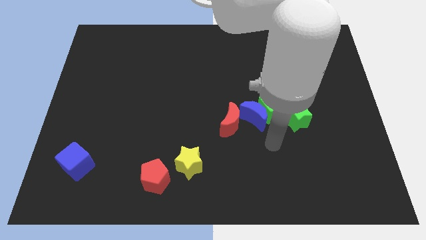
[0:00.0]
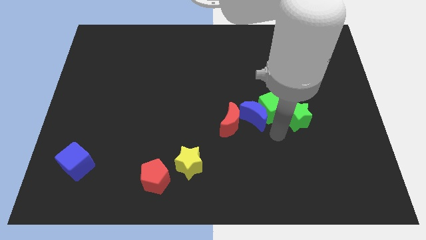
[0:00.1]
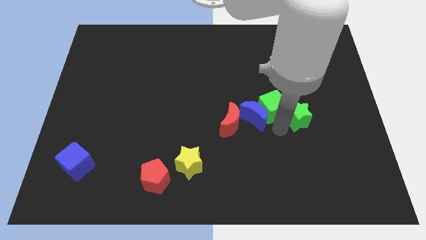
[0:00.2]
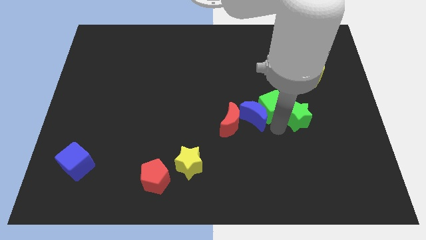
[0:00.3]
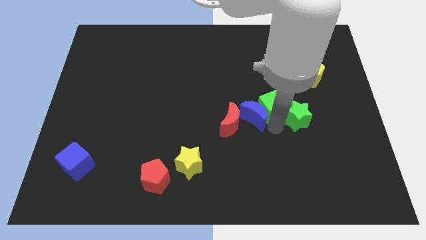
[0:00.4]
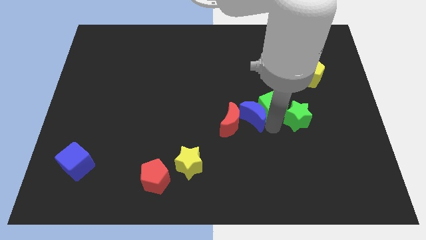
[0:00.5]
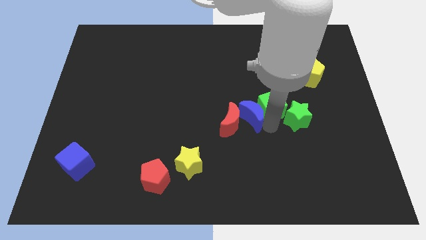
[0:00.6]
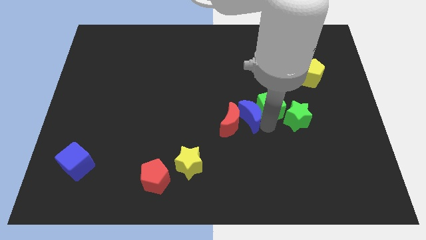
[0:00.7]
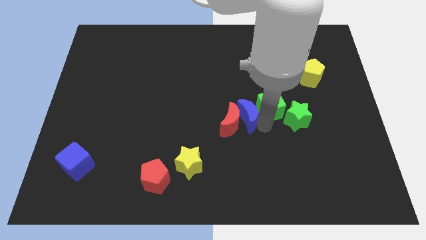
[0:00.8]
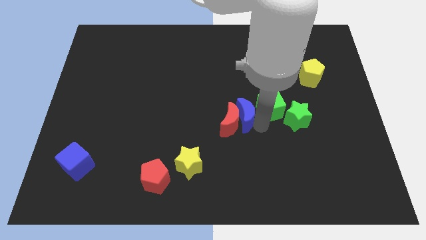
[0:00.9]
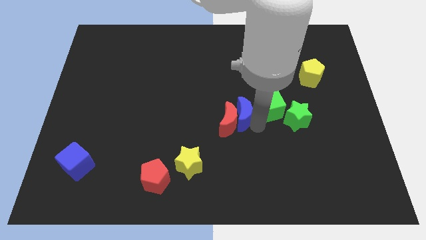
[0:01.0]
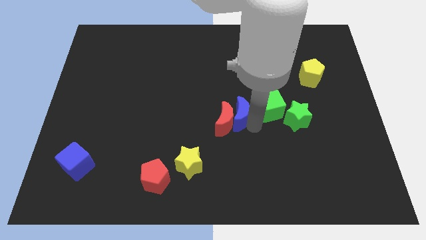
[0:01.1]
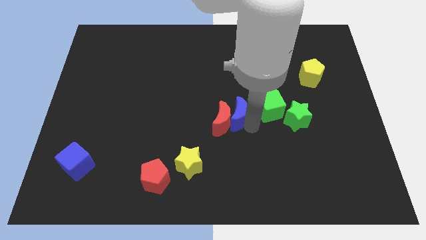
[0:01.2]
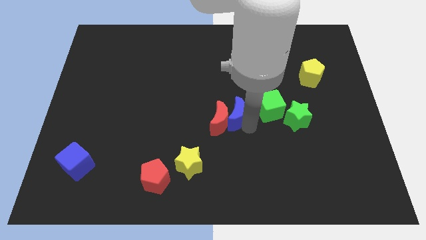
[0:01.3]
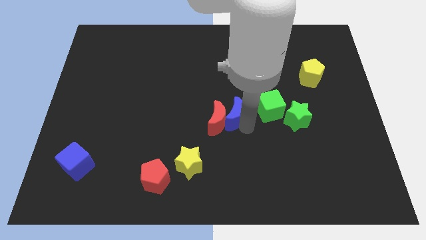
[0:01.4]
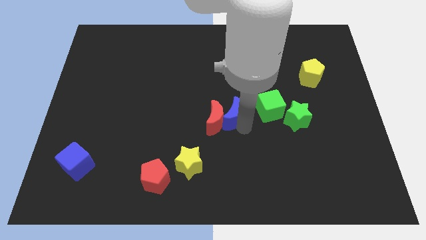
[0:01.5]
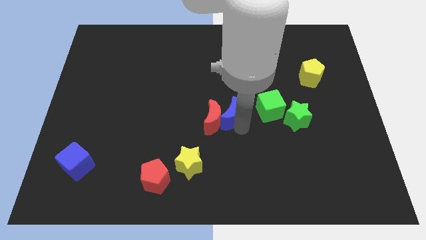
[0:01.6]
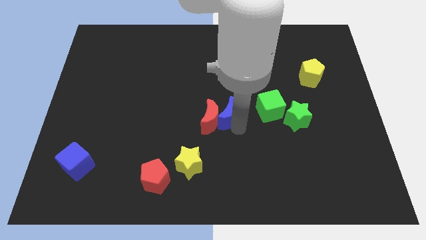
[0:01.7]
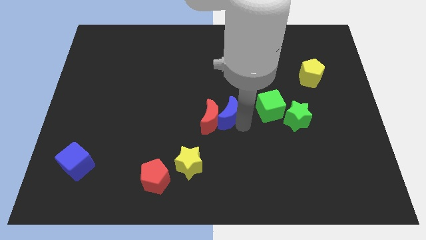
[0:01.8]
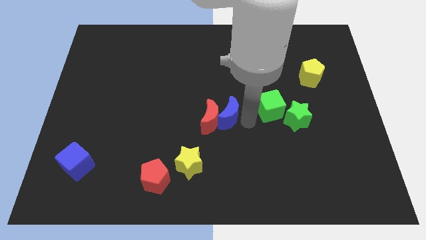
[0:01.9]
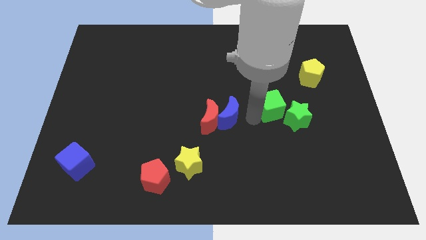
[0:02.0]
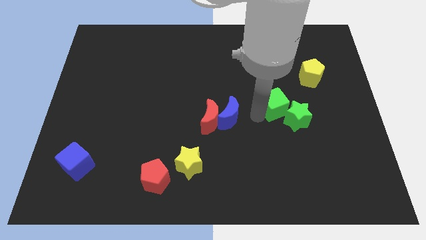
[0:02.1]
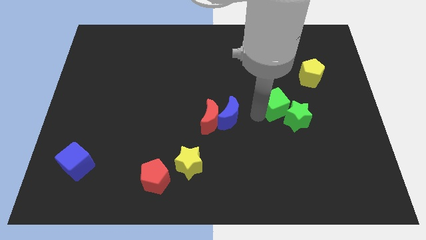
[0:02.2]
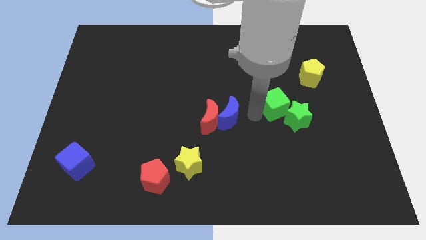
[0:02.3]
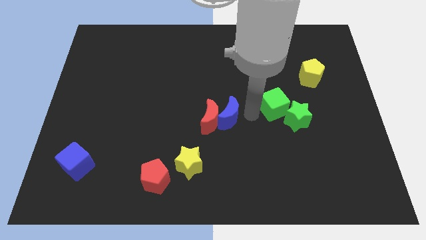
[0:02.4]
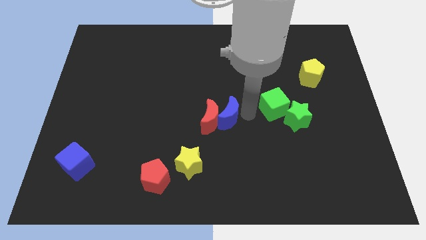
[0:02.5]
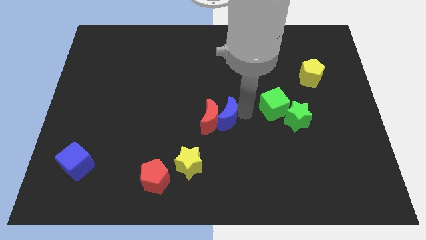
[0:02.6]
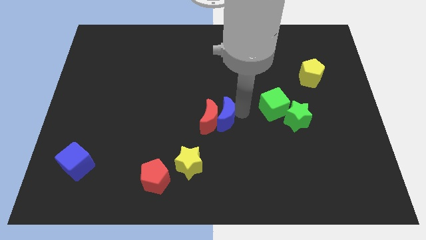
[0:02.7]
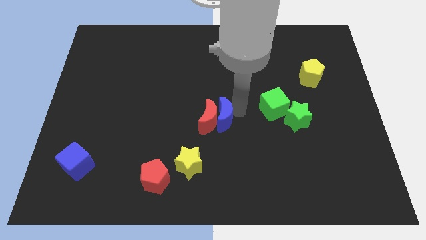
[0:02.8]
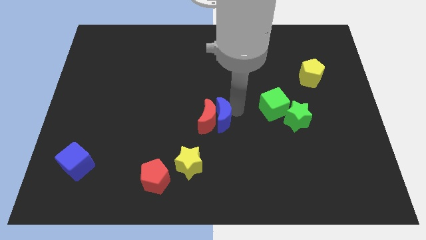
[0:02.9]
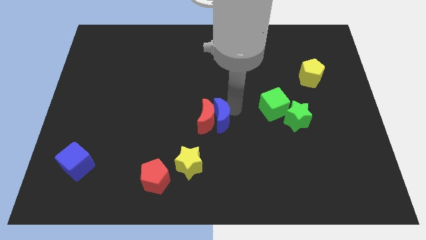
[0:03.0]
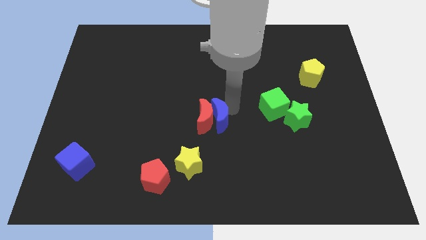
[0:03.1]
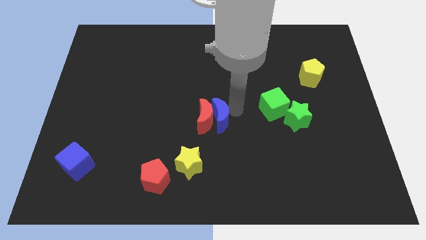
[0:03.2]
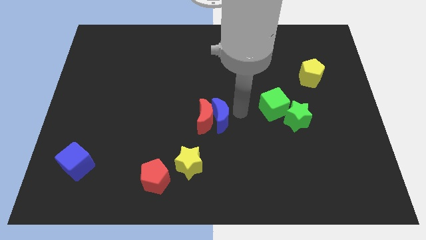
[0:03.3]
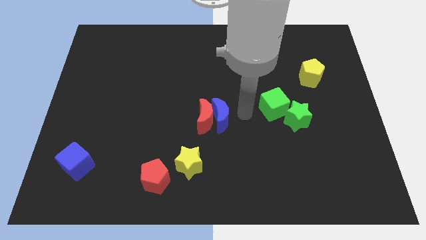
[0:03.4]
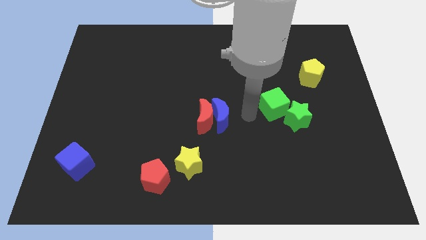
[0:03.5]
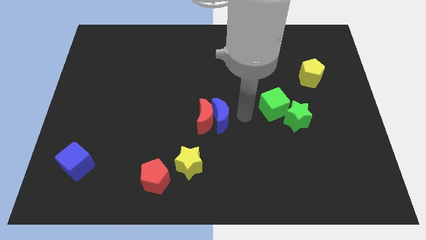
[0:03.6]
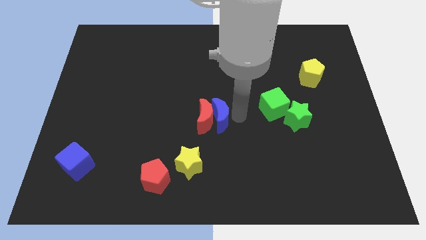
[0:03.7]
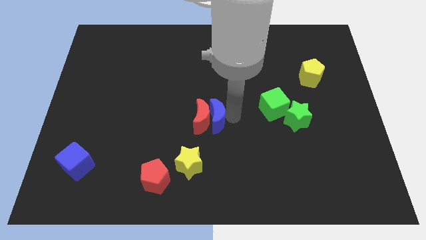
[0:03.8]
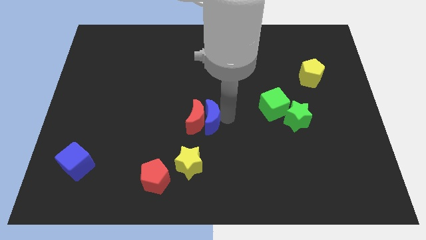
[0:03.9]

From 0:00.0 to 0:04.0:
pull the blue moon apart from the green cube, red moon, and green star

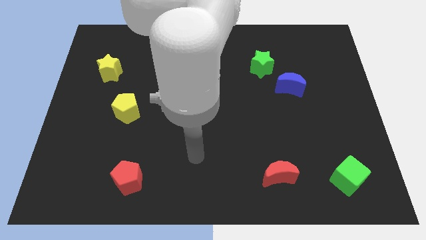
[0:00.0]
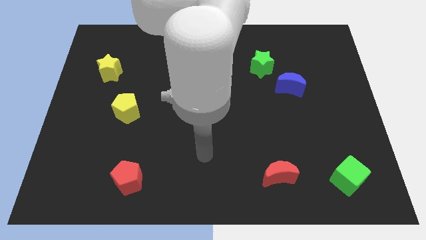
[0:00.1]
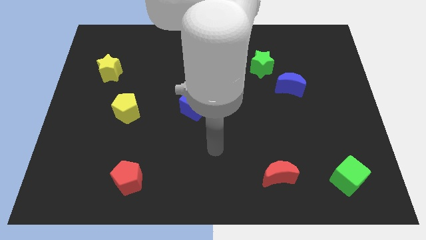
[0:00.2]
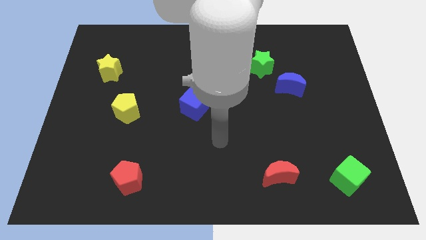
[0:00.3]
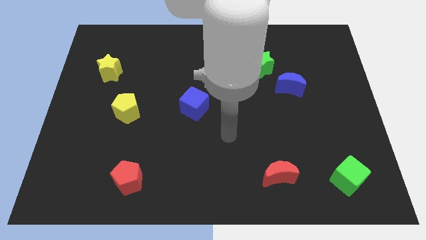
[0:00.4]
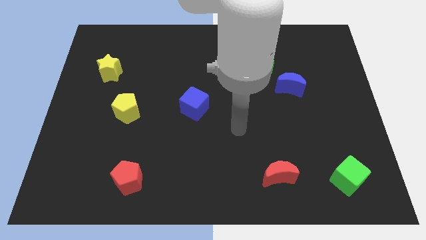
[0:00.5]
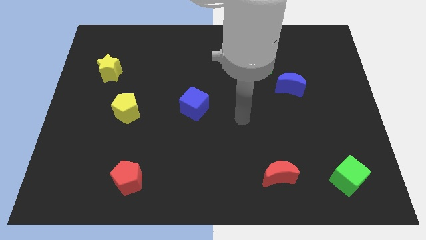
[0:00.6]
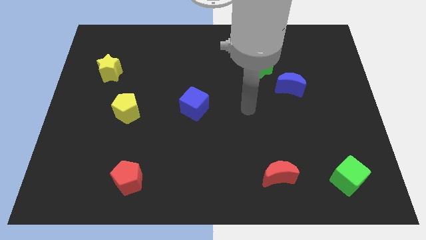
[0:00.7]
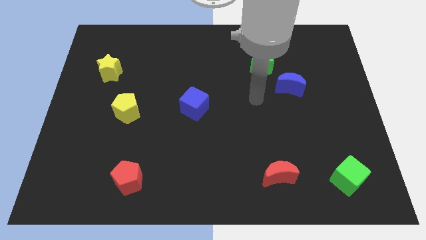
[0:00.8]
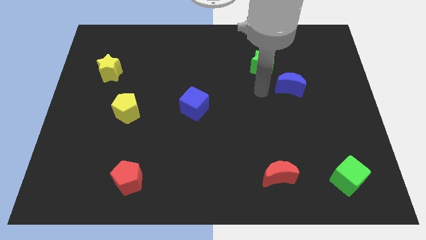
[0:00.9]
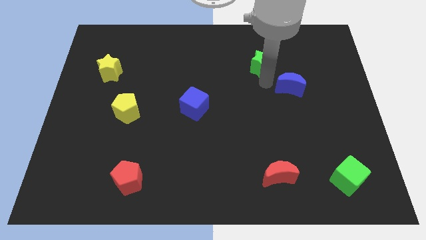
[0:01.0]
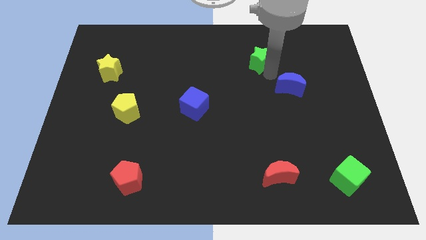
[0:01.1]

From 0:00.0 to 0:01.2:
move the blue moon away from the green star

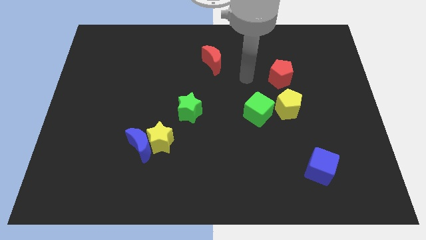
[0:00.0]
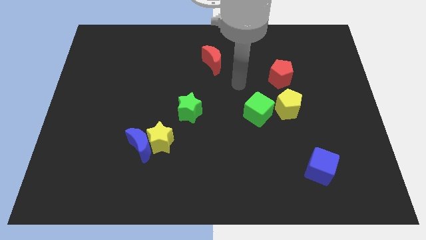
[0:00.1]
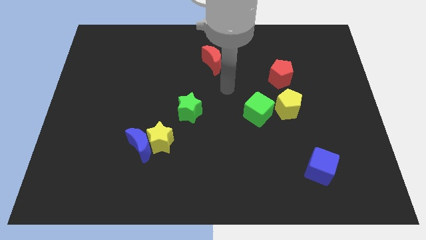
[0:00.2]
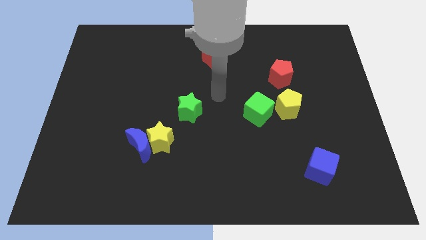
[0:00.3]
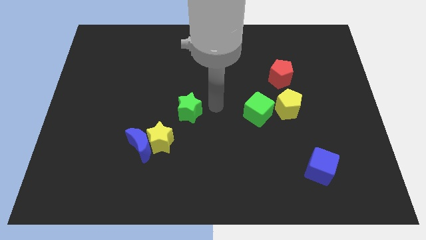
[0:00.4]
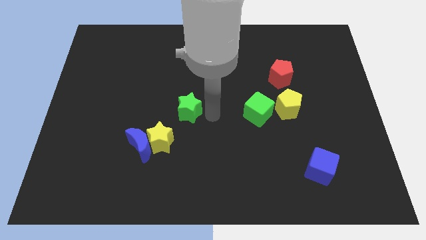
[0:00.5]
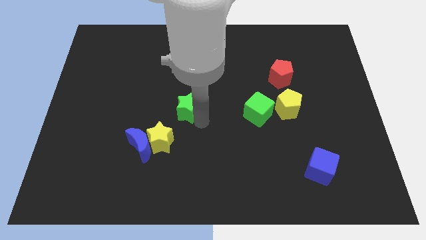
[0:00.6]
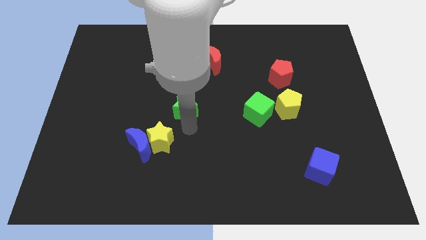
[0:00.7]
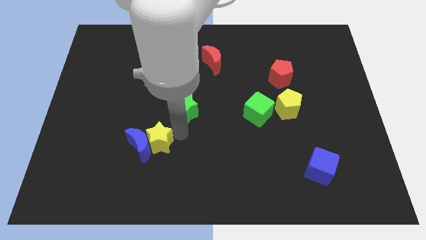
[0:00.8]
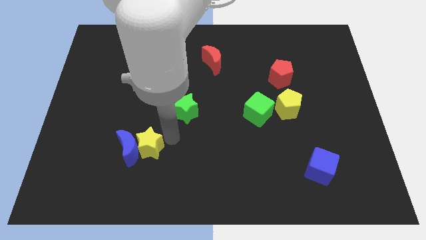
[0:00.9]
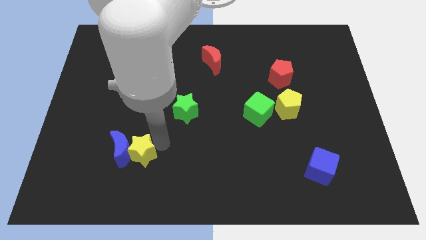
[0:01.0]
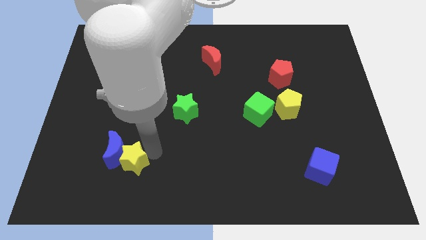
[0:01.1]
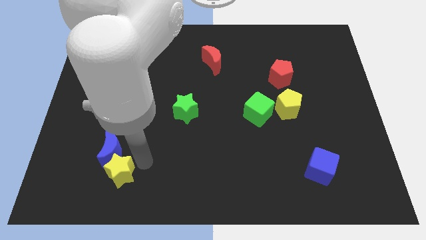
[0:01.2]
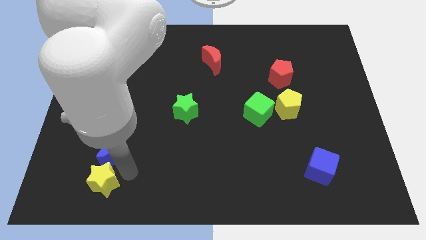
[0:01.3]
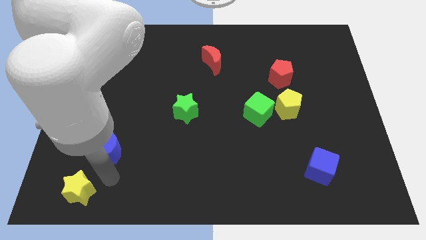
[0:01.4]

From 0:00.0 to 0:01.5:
move the blue moon away from the yellow star

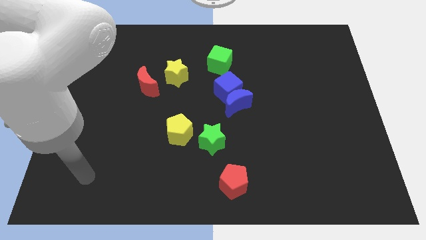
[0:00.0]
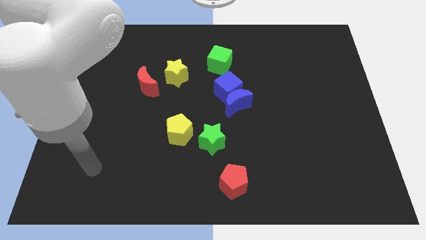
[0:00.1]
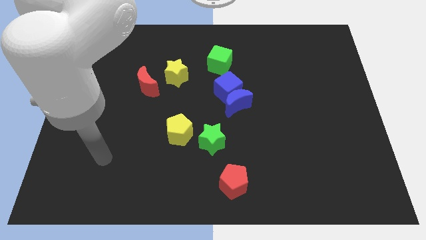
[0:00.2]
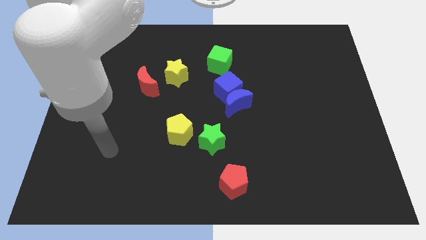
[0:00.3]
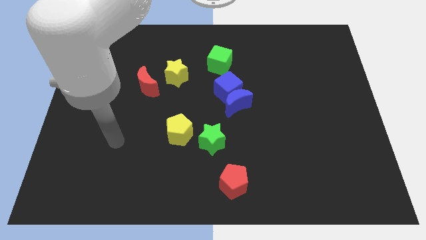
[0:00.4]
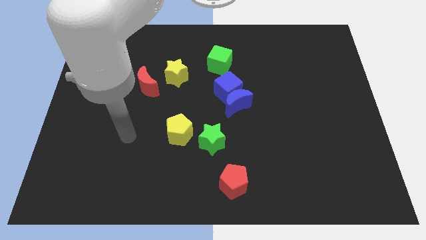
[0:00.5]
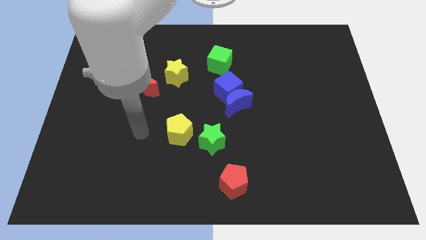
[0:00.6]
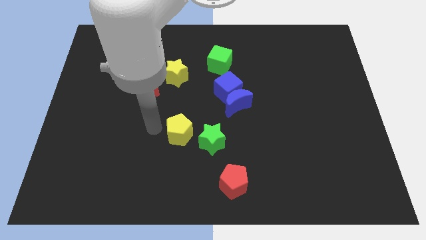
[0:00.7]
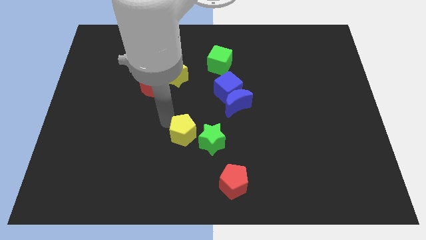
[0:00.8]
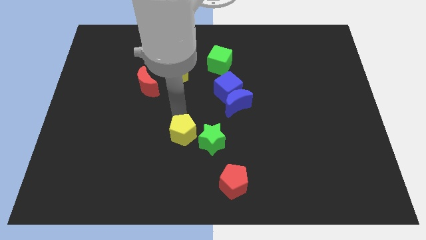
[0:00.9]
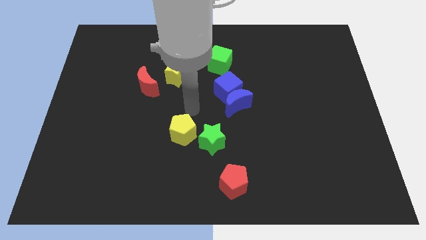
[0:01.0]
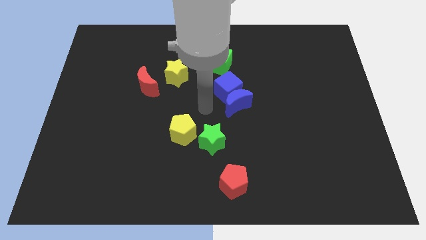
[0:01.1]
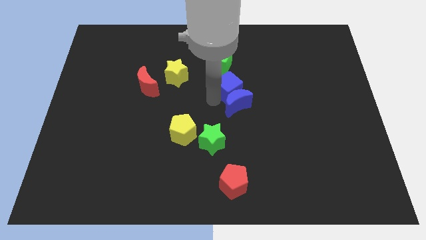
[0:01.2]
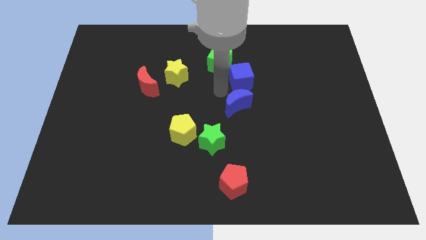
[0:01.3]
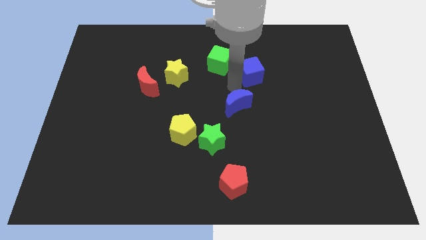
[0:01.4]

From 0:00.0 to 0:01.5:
move the blue moon away from the blue cube

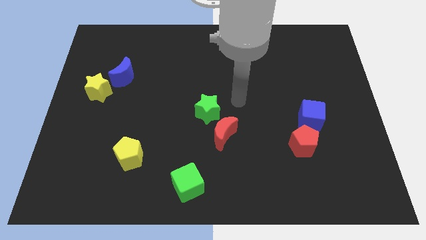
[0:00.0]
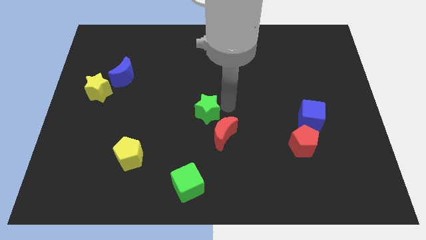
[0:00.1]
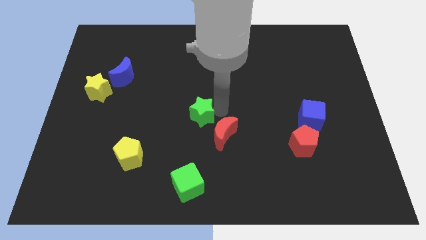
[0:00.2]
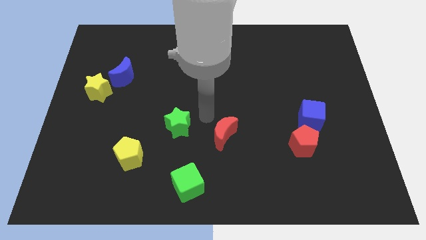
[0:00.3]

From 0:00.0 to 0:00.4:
pull the red moon apart from the green star

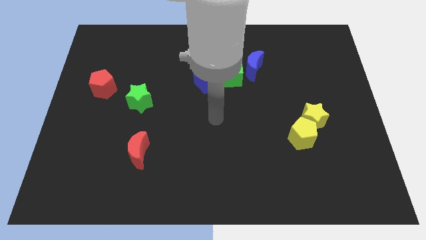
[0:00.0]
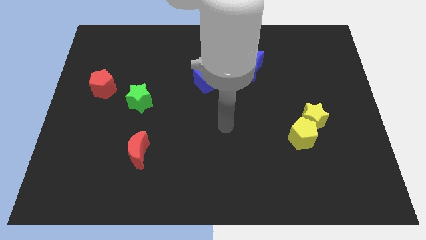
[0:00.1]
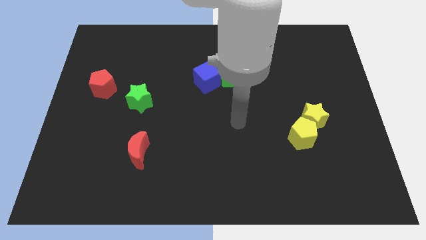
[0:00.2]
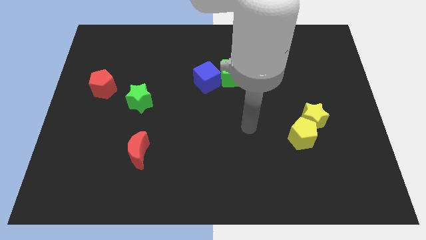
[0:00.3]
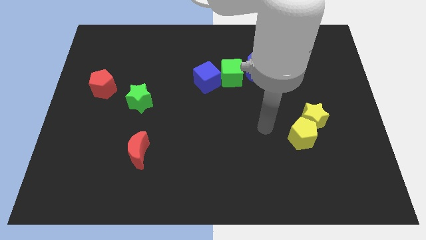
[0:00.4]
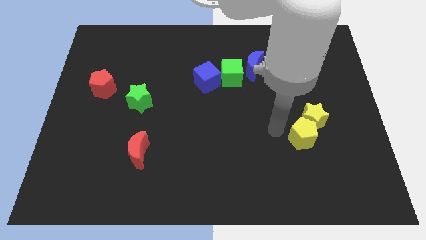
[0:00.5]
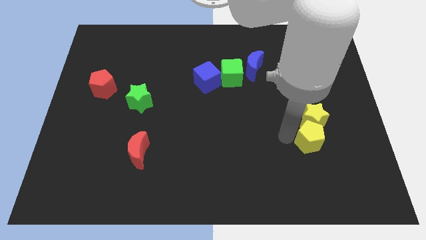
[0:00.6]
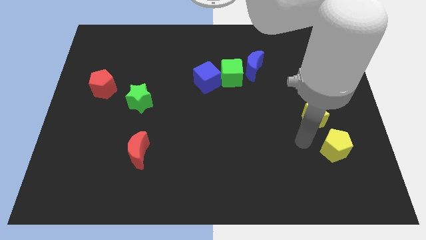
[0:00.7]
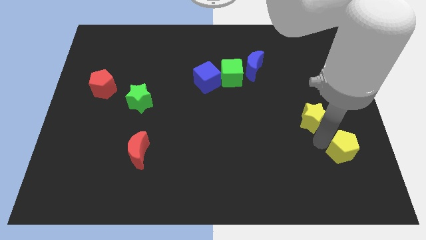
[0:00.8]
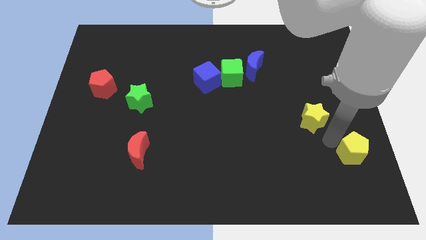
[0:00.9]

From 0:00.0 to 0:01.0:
move the yellow star away from the yellow pentagon
